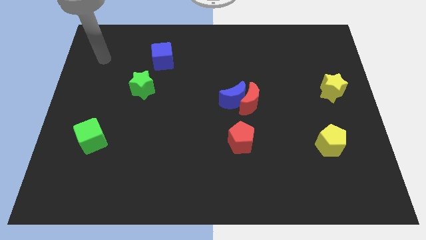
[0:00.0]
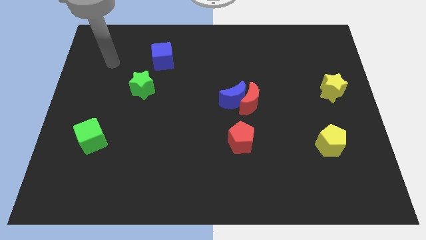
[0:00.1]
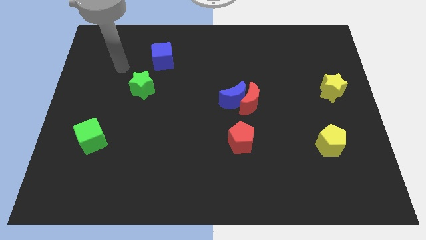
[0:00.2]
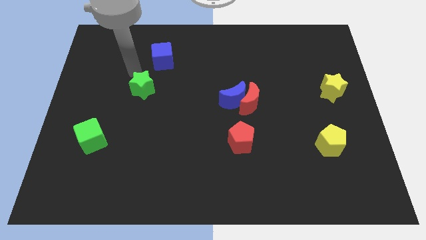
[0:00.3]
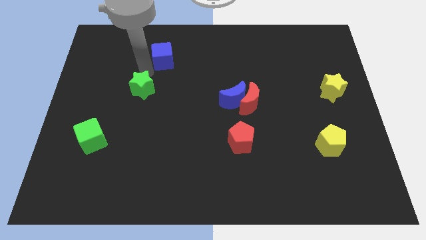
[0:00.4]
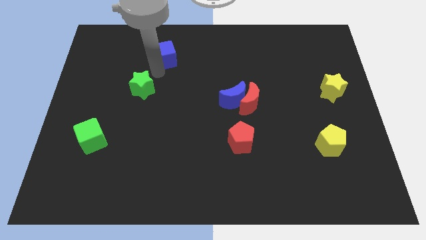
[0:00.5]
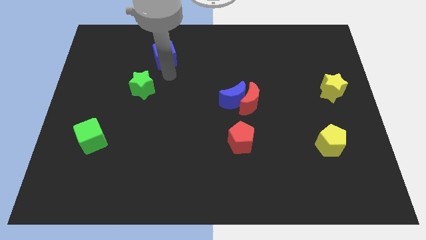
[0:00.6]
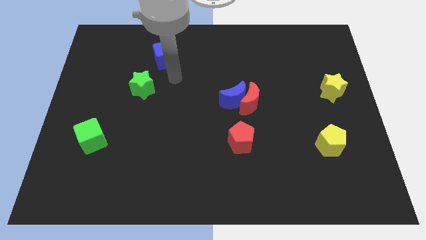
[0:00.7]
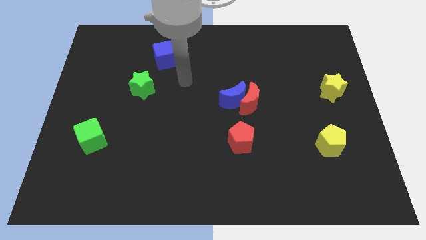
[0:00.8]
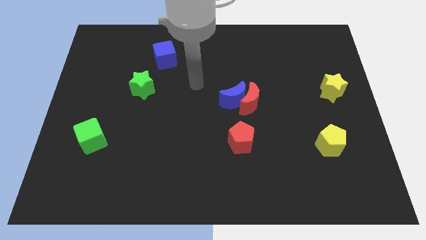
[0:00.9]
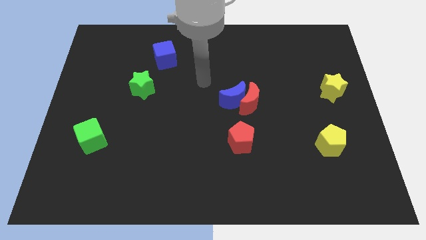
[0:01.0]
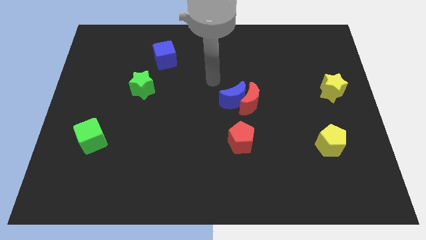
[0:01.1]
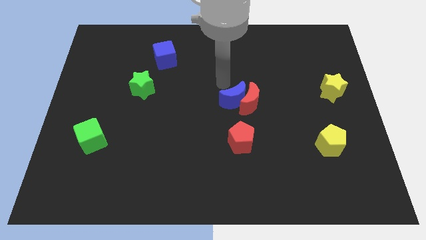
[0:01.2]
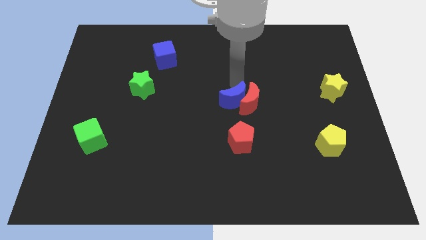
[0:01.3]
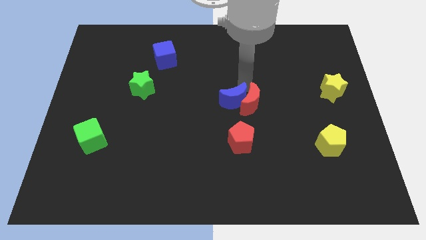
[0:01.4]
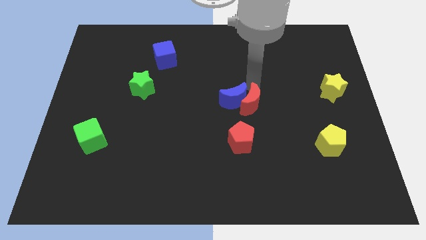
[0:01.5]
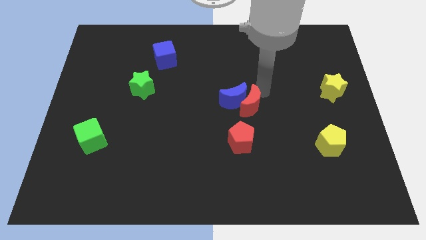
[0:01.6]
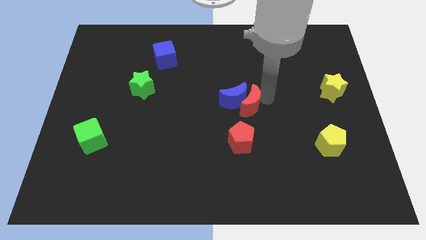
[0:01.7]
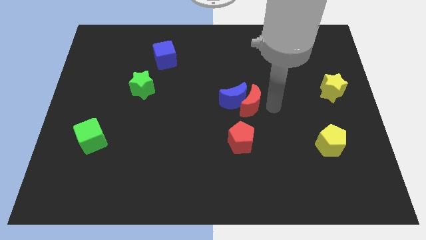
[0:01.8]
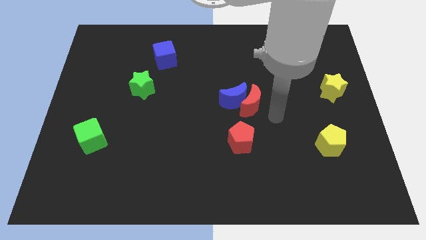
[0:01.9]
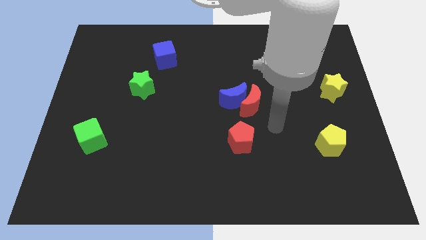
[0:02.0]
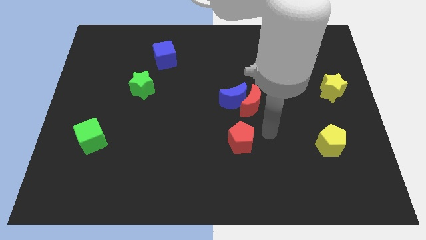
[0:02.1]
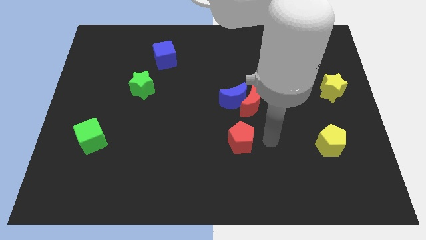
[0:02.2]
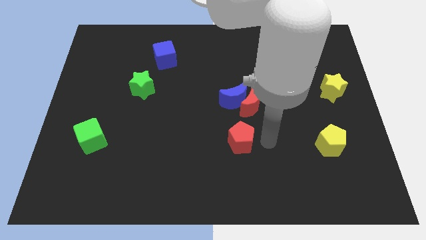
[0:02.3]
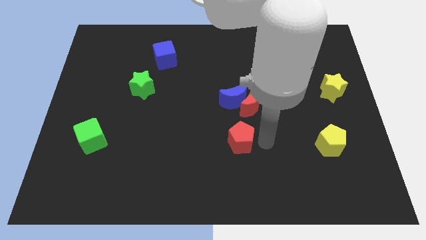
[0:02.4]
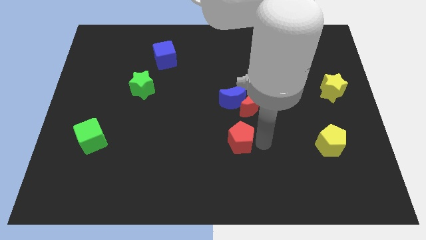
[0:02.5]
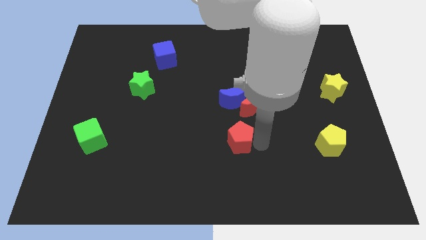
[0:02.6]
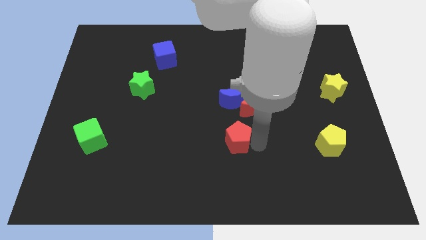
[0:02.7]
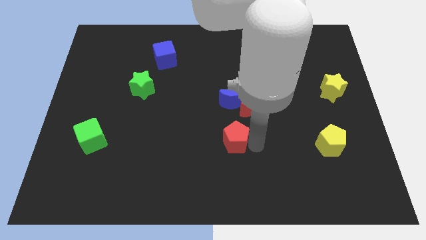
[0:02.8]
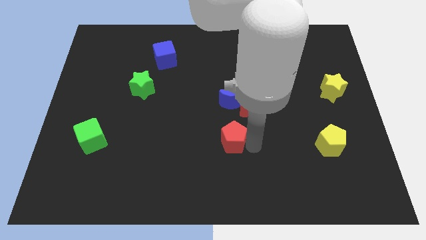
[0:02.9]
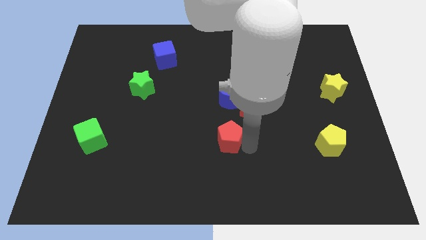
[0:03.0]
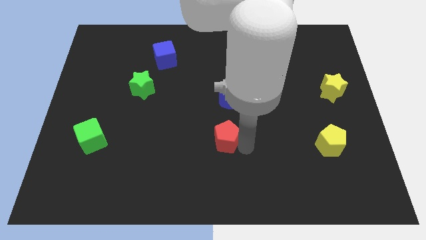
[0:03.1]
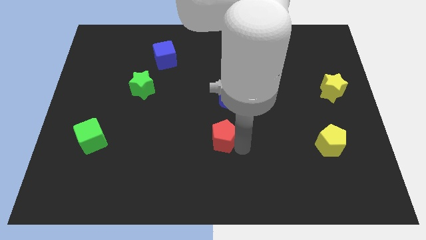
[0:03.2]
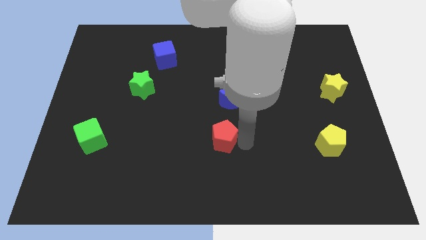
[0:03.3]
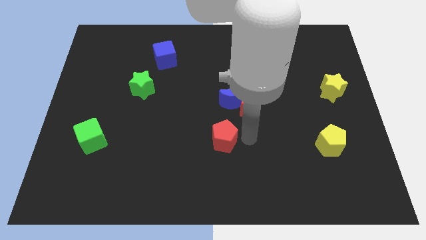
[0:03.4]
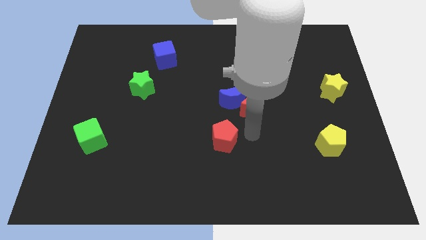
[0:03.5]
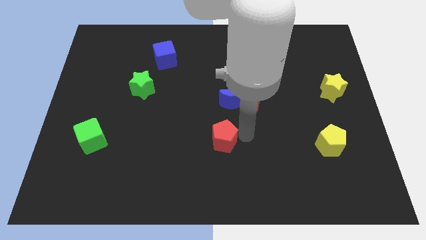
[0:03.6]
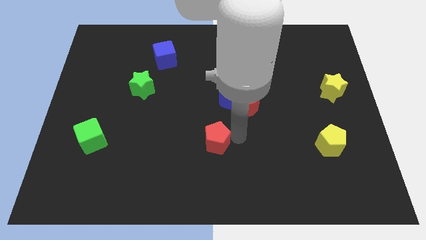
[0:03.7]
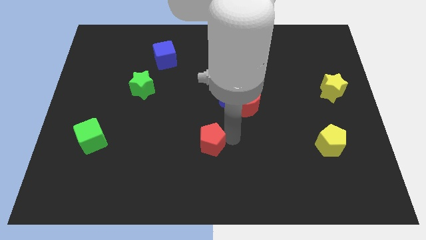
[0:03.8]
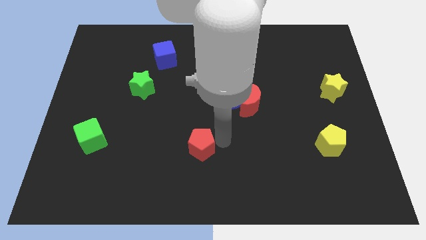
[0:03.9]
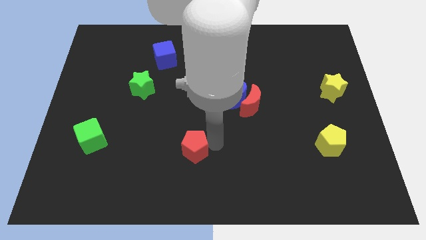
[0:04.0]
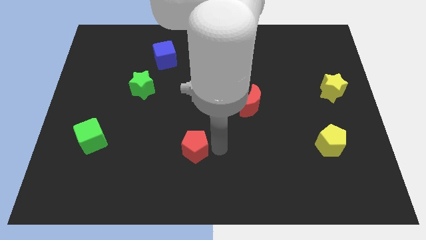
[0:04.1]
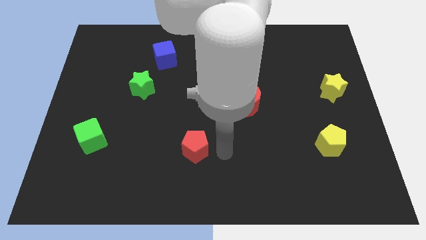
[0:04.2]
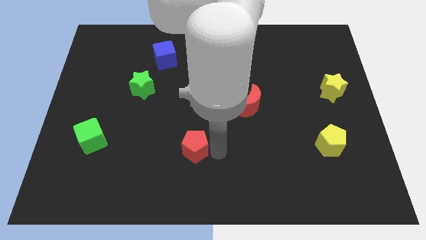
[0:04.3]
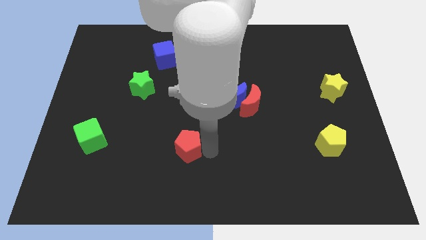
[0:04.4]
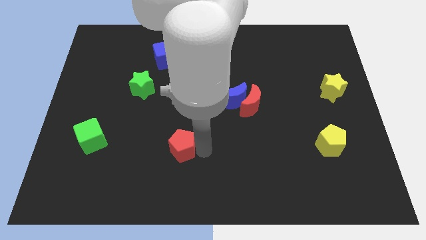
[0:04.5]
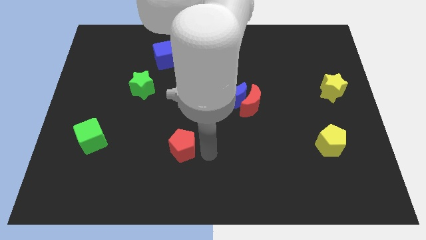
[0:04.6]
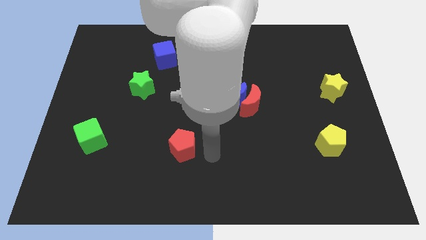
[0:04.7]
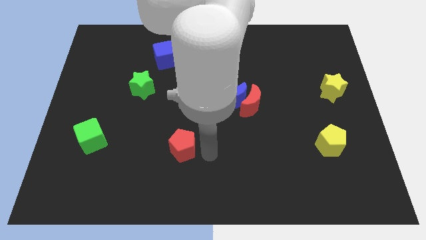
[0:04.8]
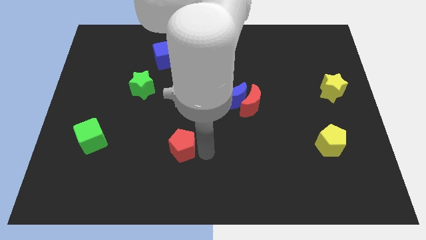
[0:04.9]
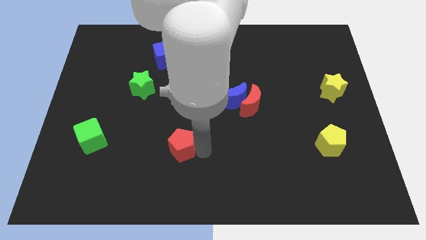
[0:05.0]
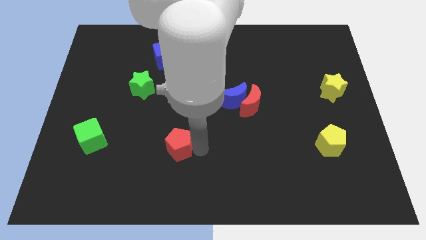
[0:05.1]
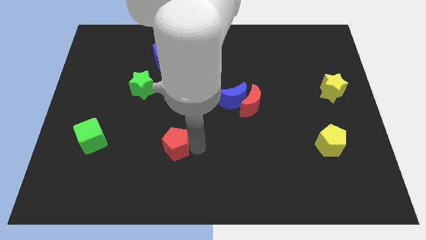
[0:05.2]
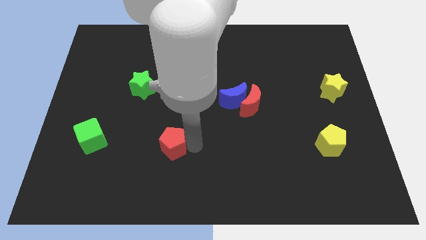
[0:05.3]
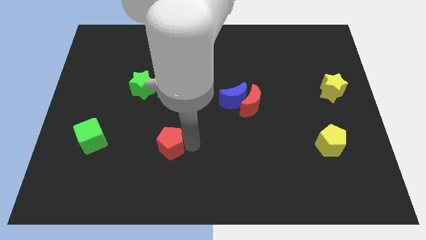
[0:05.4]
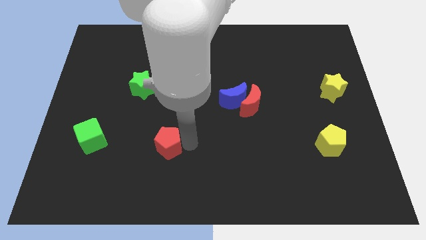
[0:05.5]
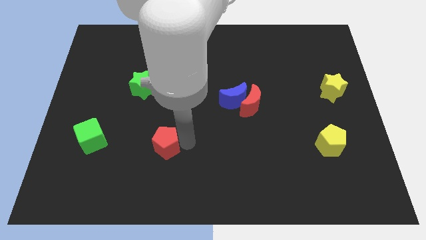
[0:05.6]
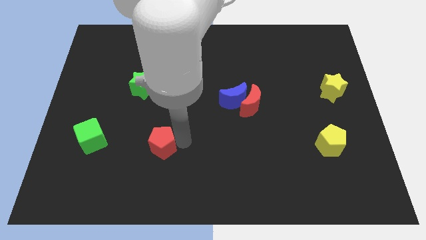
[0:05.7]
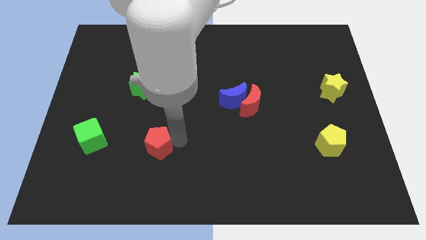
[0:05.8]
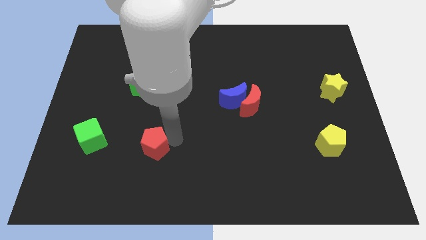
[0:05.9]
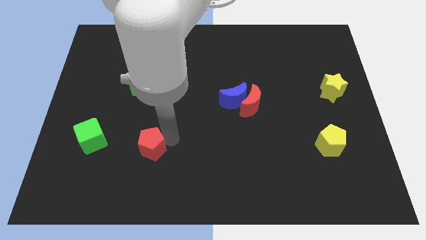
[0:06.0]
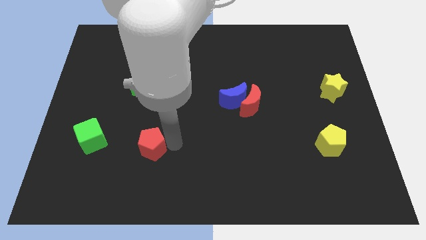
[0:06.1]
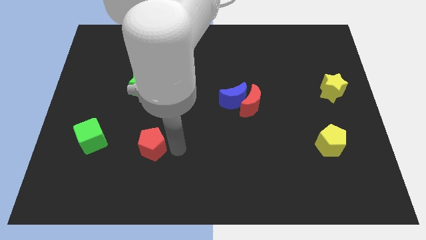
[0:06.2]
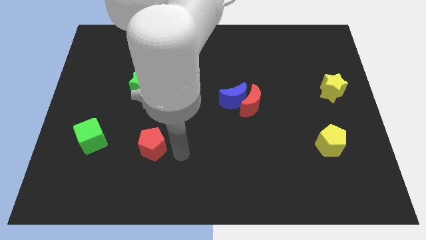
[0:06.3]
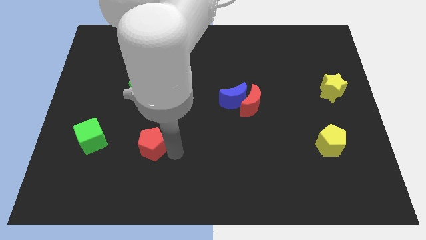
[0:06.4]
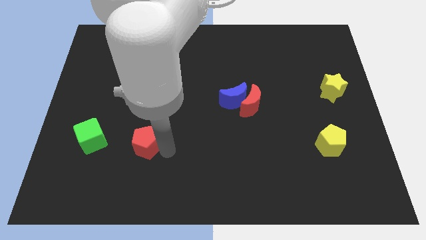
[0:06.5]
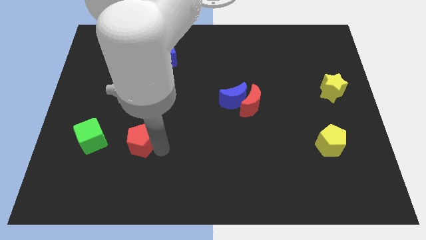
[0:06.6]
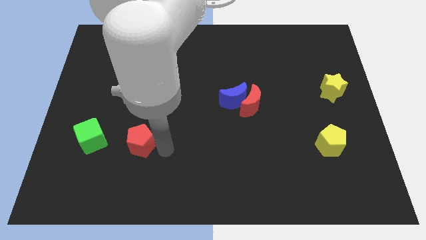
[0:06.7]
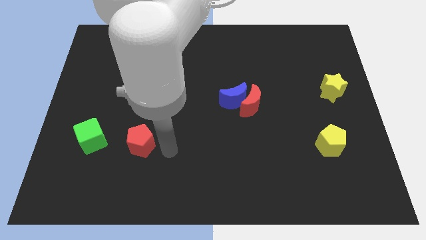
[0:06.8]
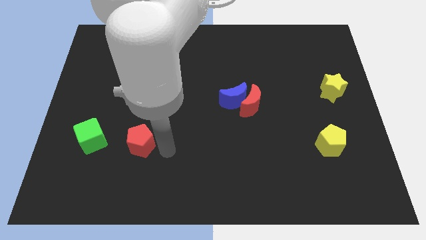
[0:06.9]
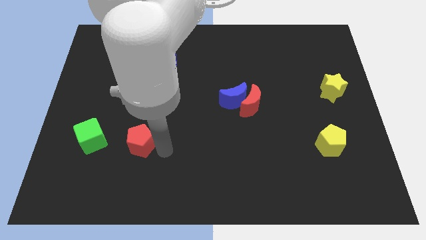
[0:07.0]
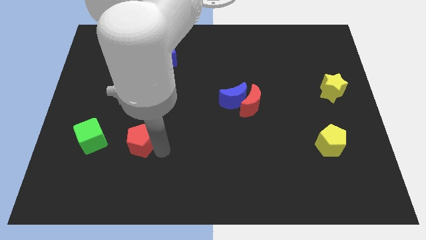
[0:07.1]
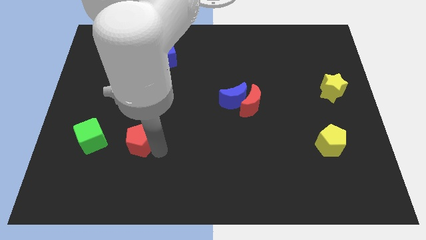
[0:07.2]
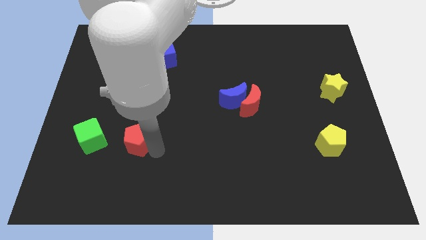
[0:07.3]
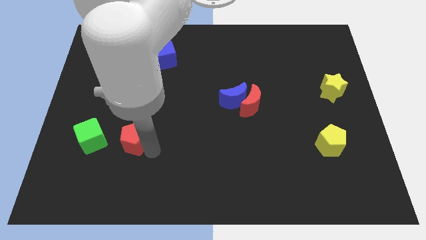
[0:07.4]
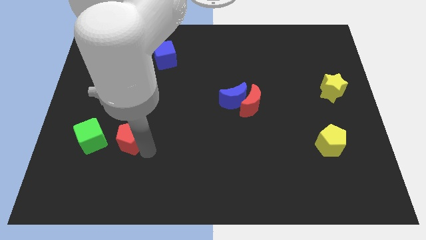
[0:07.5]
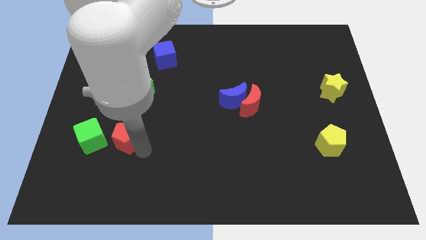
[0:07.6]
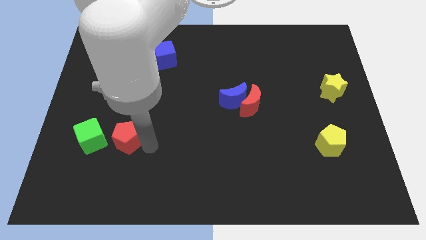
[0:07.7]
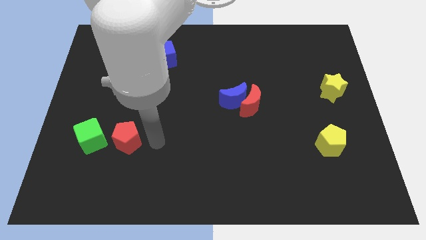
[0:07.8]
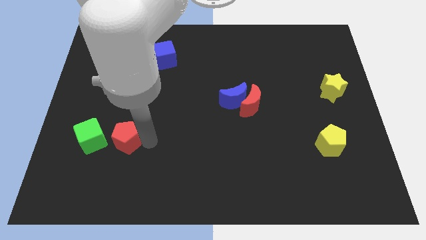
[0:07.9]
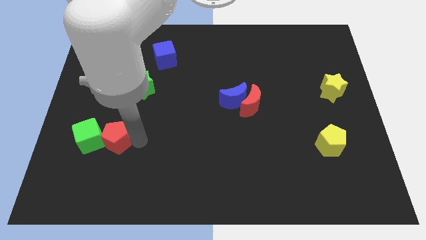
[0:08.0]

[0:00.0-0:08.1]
push the red pentagon next to the green cube
